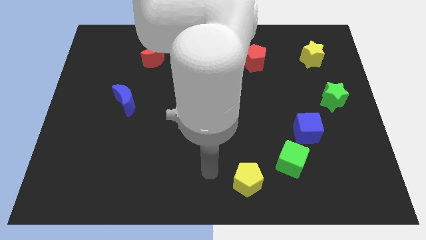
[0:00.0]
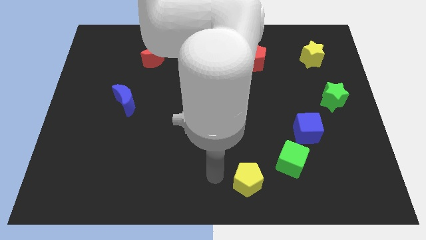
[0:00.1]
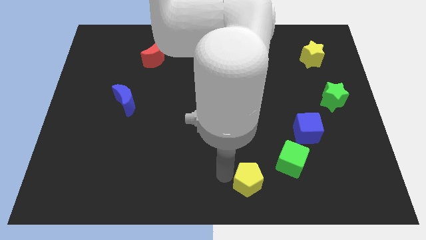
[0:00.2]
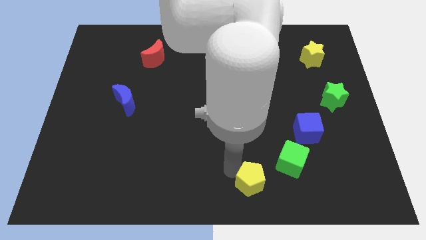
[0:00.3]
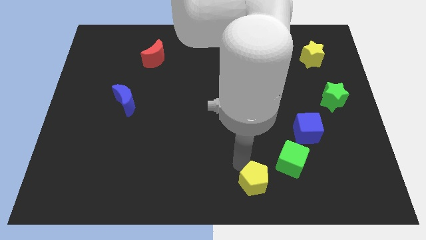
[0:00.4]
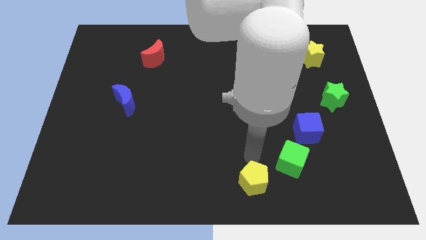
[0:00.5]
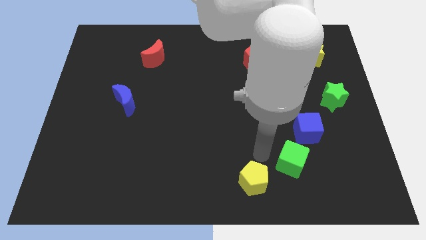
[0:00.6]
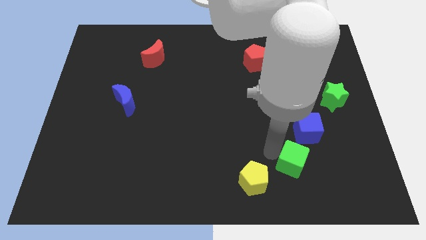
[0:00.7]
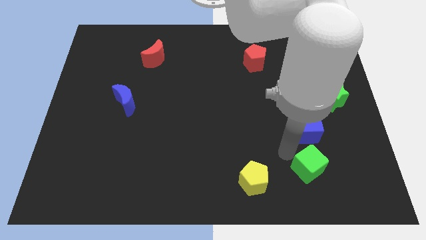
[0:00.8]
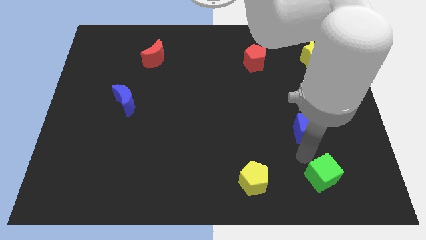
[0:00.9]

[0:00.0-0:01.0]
pull the blue cube apart from the green cube

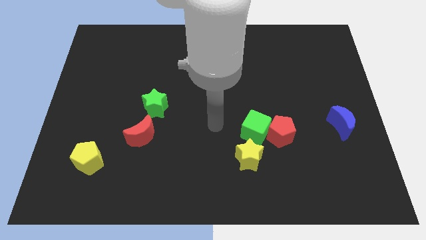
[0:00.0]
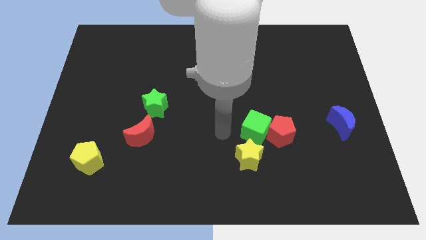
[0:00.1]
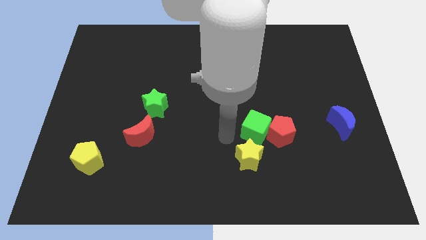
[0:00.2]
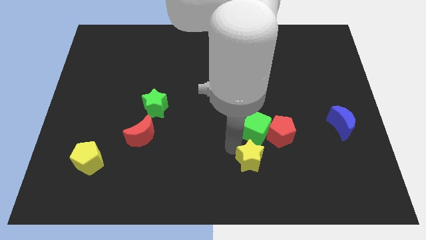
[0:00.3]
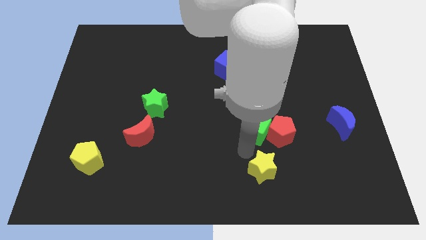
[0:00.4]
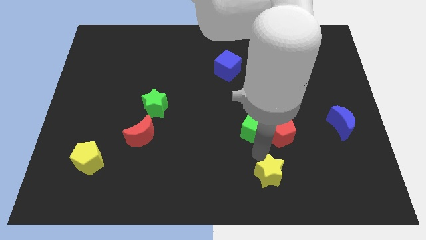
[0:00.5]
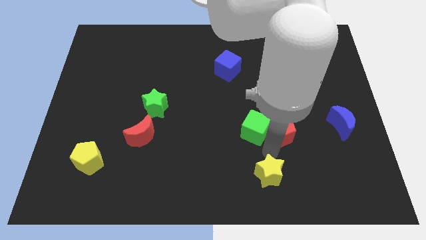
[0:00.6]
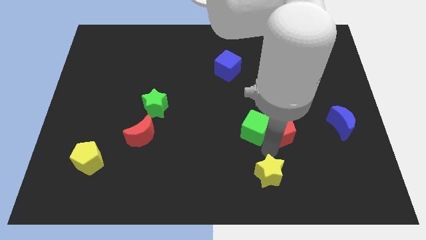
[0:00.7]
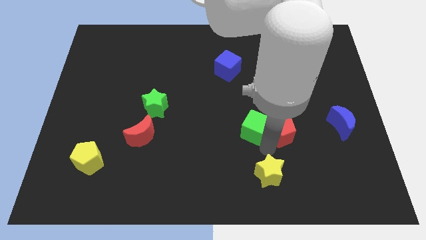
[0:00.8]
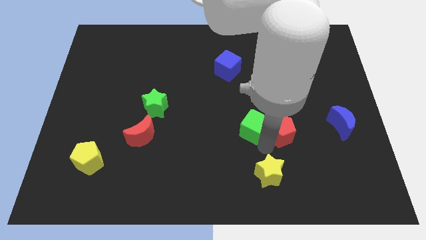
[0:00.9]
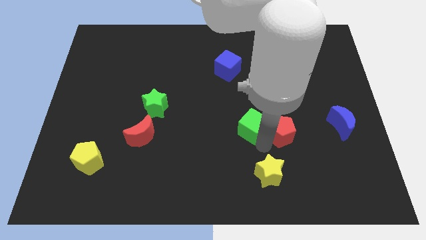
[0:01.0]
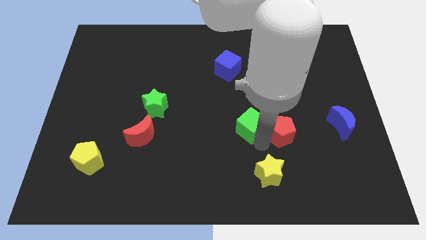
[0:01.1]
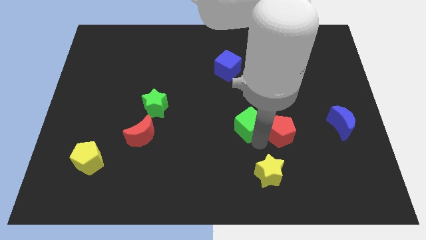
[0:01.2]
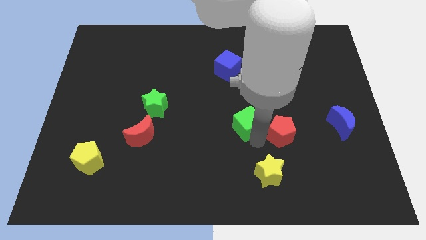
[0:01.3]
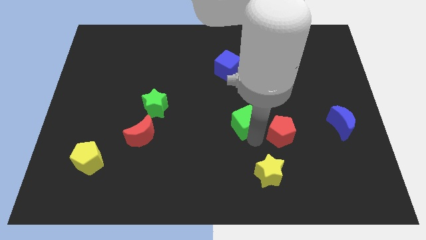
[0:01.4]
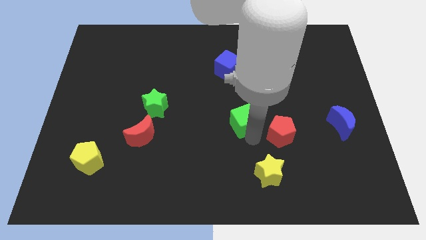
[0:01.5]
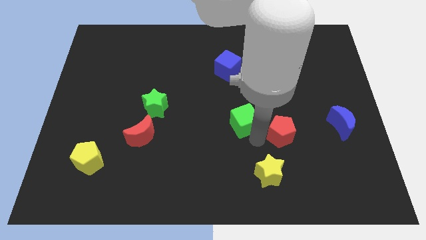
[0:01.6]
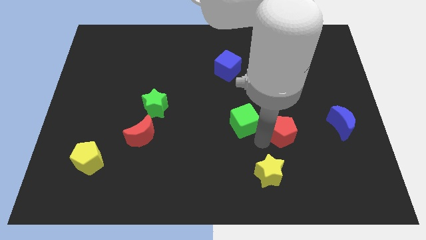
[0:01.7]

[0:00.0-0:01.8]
move the green cube away from the red pentagon and yellow star

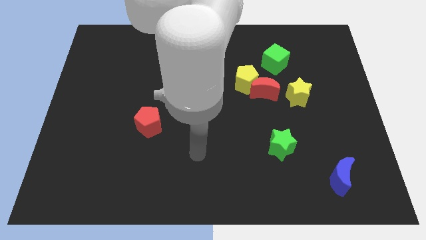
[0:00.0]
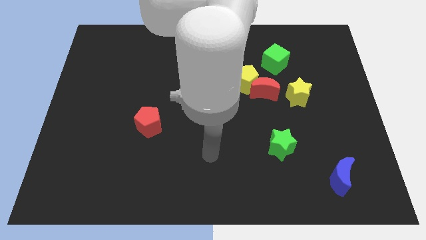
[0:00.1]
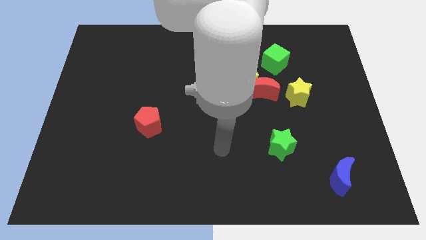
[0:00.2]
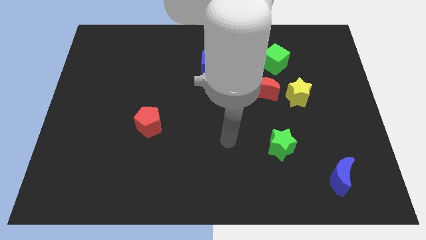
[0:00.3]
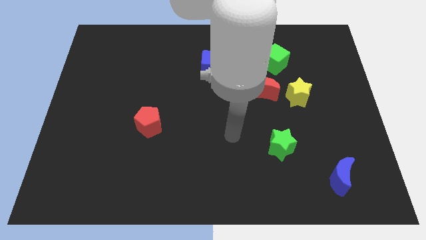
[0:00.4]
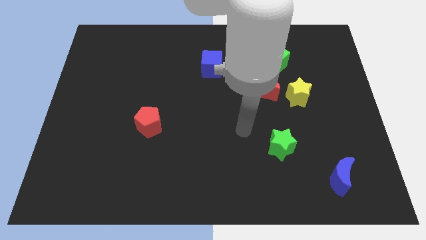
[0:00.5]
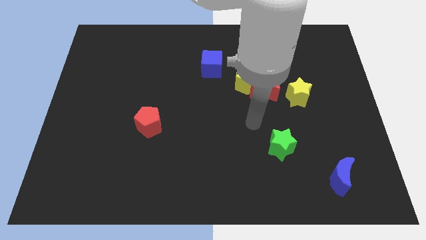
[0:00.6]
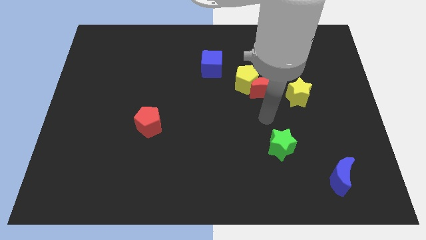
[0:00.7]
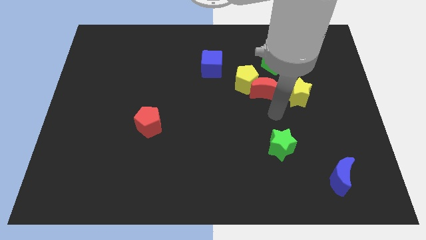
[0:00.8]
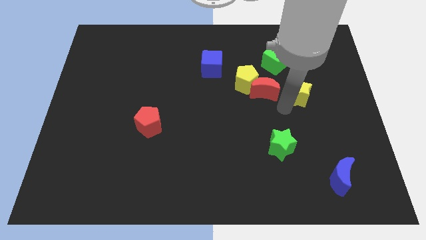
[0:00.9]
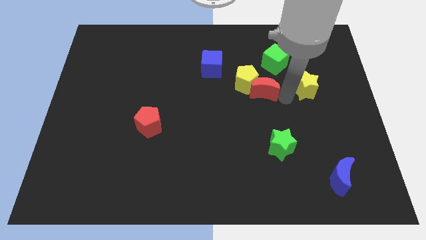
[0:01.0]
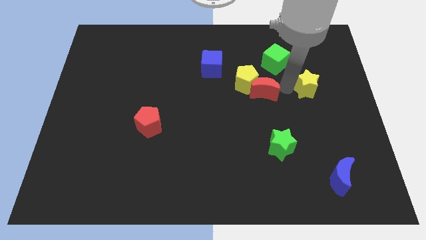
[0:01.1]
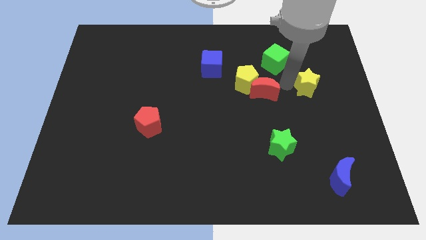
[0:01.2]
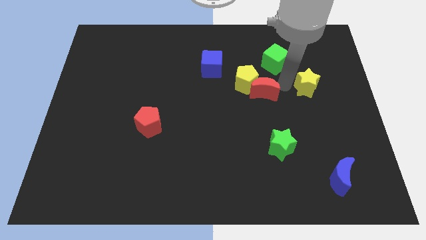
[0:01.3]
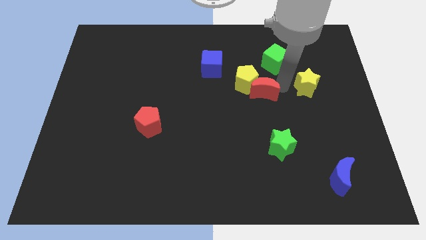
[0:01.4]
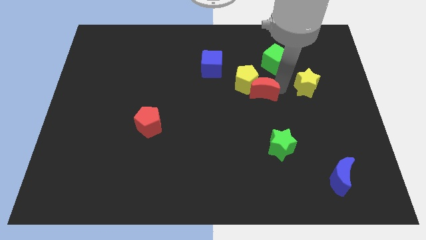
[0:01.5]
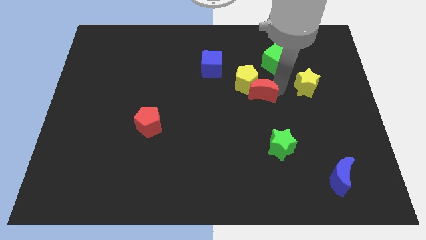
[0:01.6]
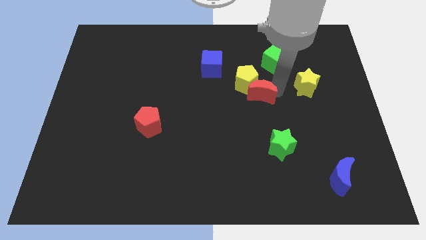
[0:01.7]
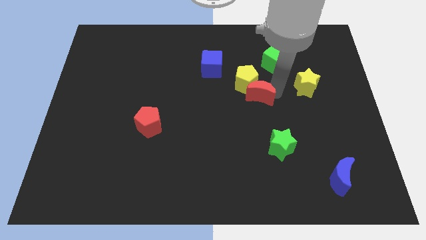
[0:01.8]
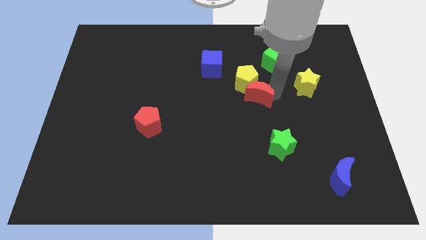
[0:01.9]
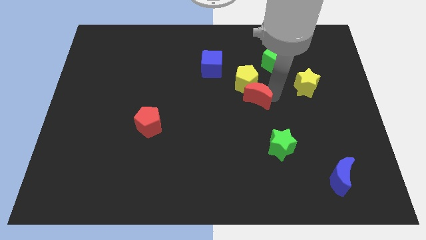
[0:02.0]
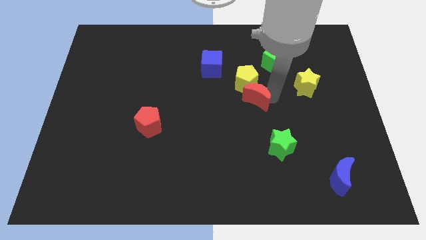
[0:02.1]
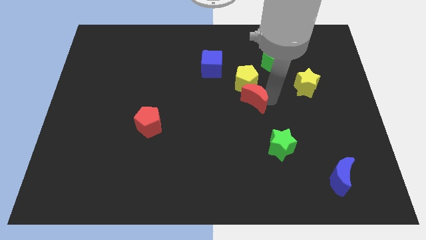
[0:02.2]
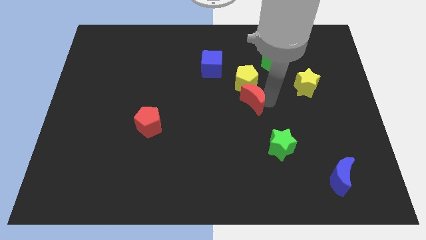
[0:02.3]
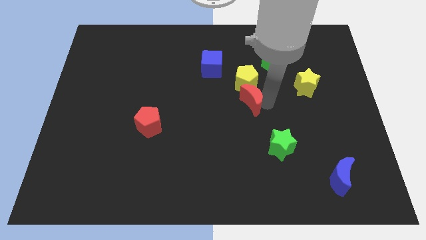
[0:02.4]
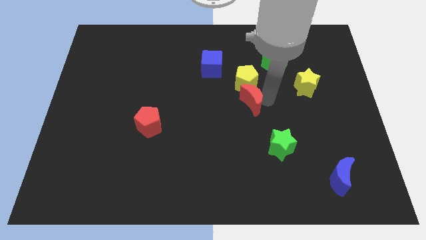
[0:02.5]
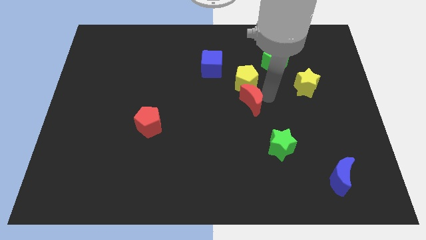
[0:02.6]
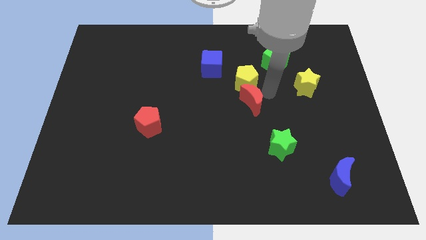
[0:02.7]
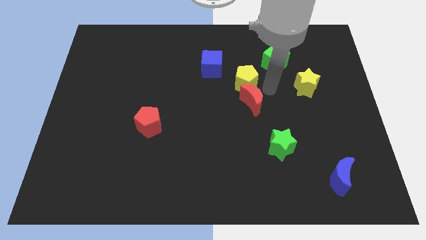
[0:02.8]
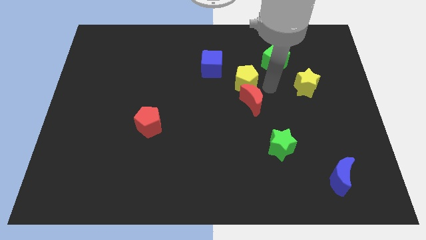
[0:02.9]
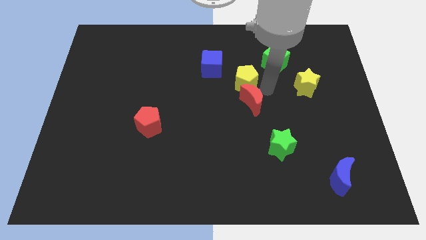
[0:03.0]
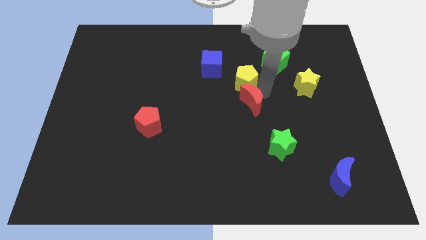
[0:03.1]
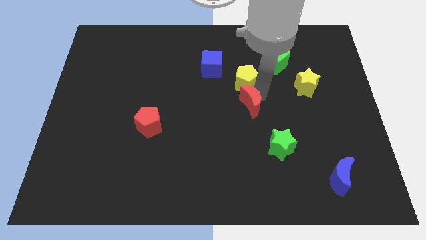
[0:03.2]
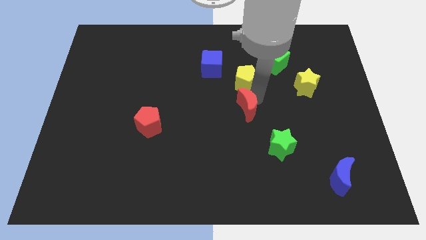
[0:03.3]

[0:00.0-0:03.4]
pull the red moon apart from the yellow pentagon and yellow star

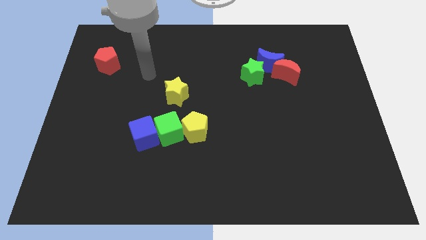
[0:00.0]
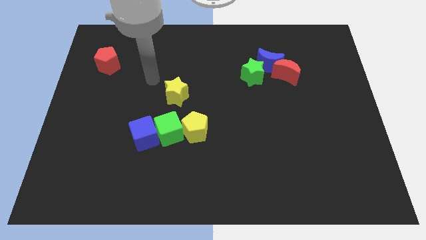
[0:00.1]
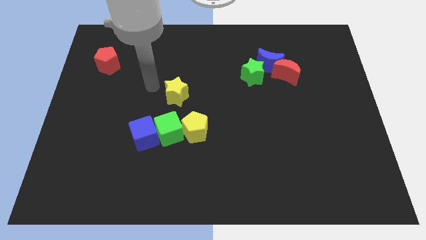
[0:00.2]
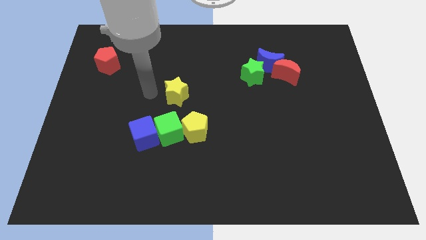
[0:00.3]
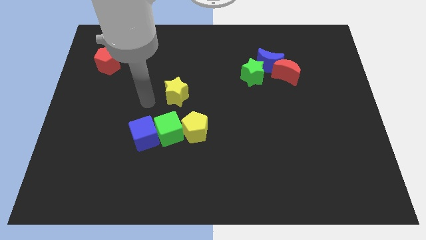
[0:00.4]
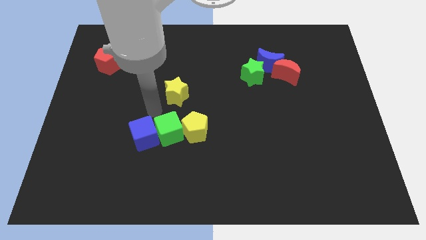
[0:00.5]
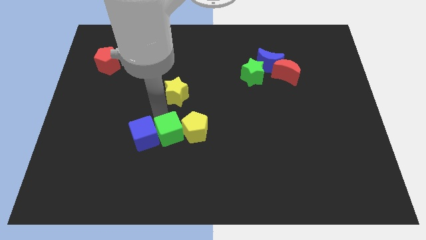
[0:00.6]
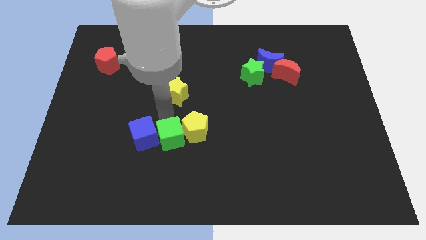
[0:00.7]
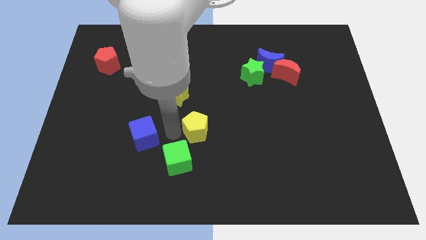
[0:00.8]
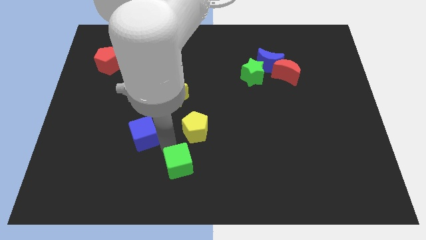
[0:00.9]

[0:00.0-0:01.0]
move the blue cube away from the green cube

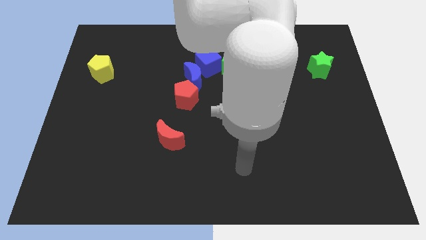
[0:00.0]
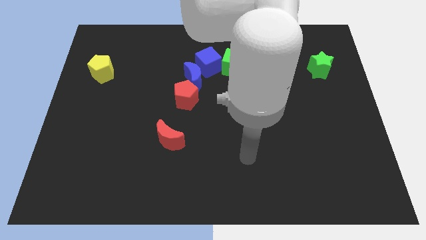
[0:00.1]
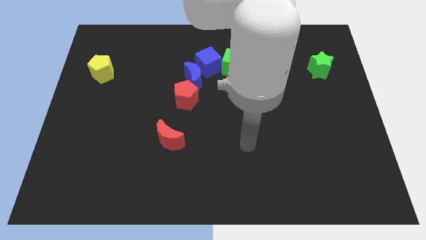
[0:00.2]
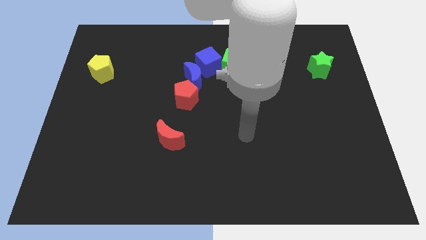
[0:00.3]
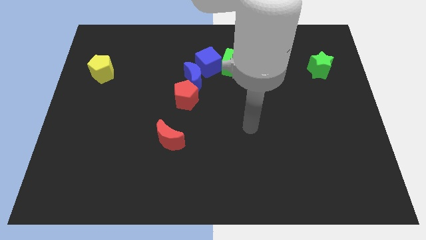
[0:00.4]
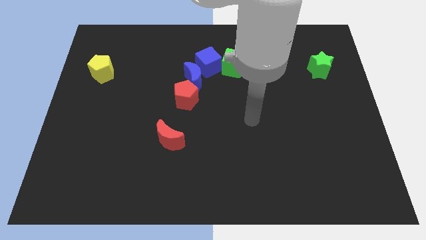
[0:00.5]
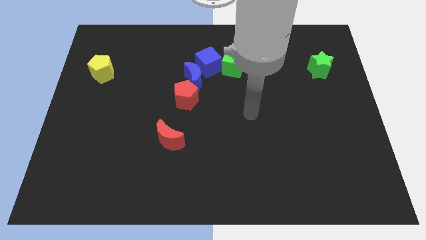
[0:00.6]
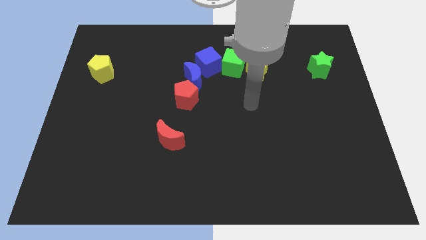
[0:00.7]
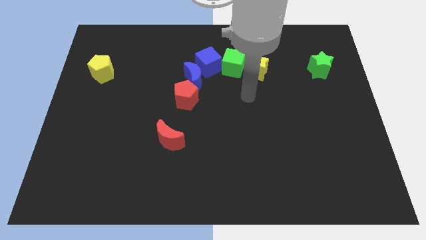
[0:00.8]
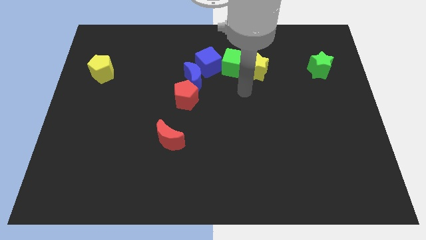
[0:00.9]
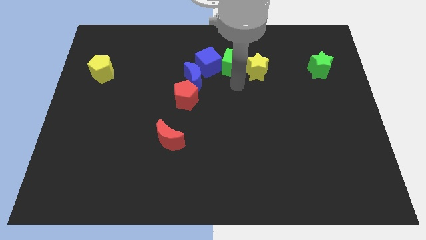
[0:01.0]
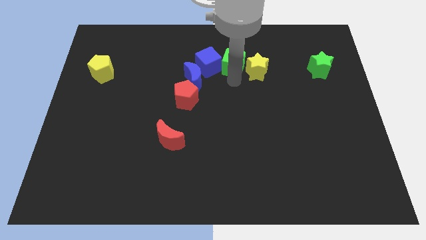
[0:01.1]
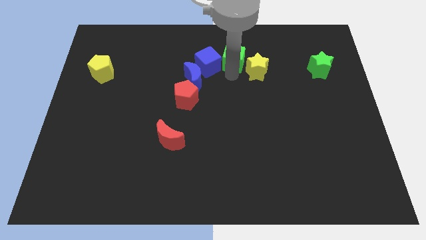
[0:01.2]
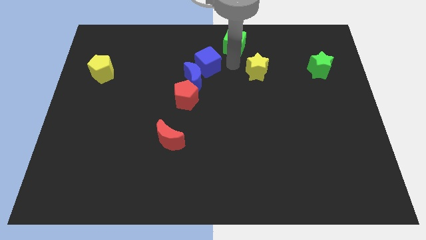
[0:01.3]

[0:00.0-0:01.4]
move the yellow star away from the green cube

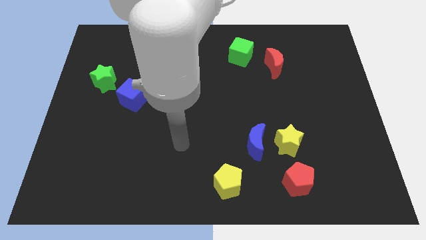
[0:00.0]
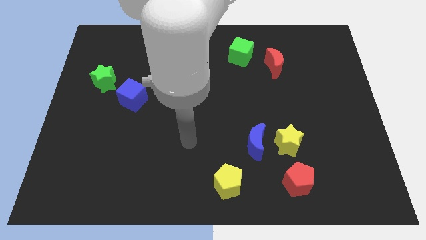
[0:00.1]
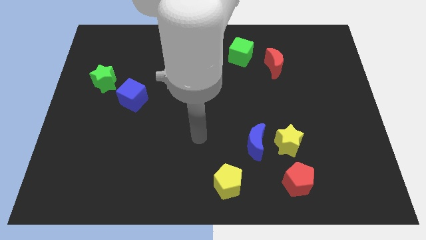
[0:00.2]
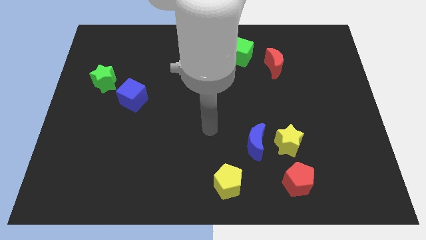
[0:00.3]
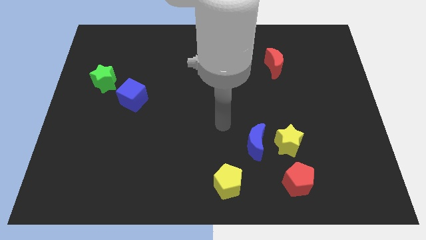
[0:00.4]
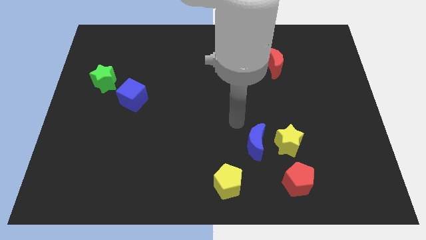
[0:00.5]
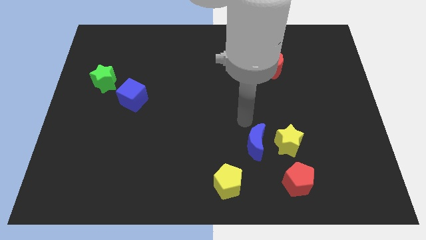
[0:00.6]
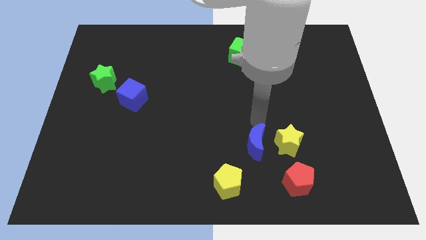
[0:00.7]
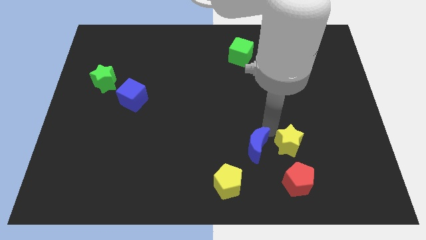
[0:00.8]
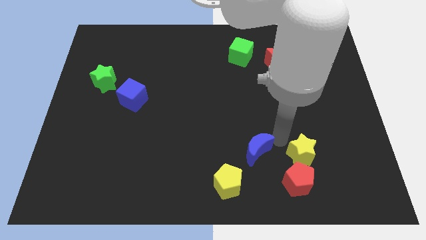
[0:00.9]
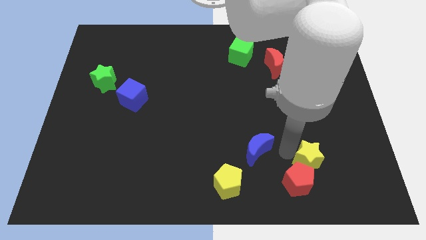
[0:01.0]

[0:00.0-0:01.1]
separate the blue moon from the yellow star
